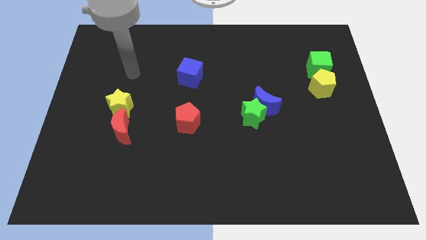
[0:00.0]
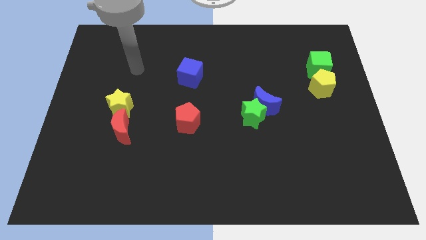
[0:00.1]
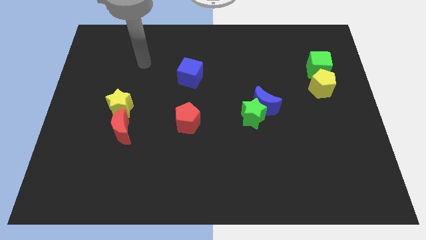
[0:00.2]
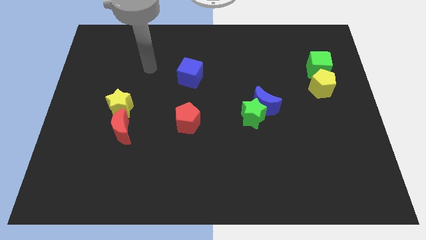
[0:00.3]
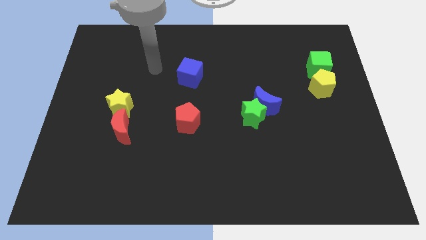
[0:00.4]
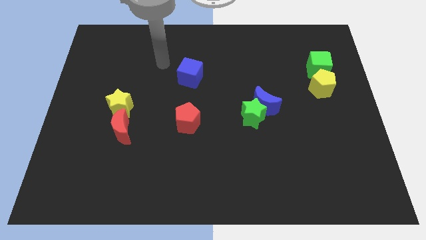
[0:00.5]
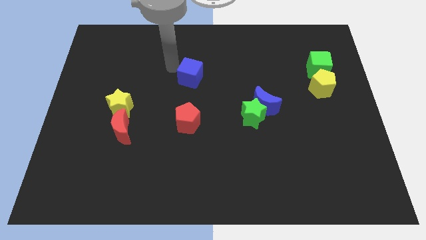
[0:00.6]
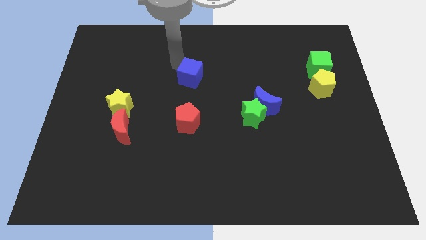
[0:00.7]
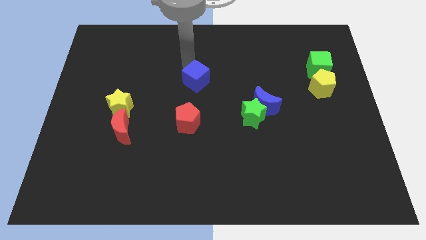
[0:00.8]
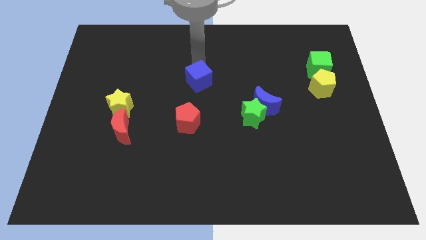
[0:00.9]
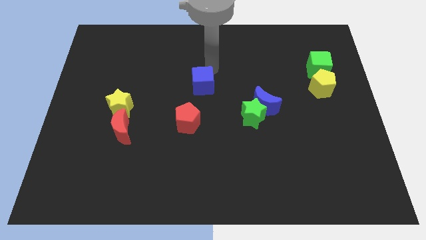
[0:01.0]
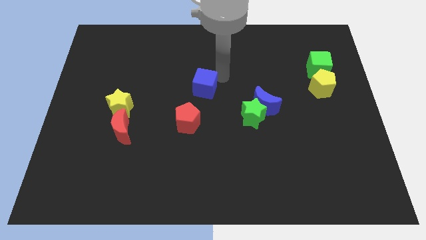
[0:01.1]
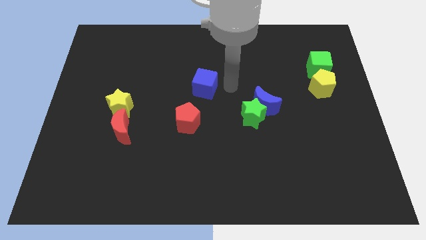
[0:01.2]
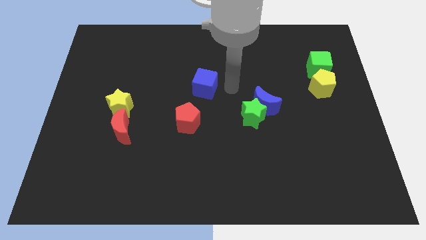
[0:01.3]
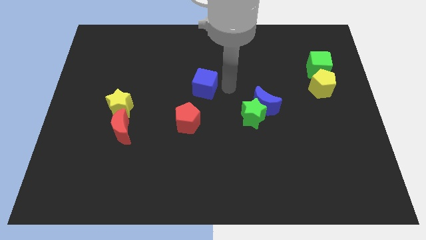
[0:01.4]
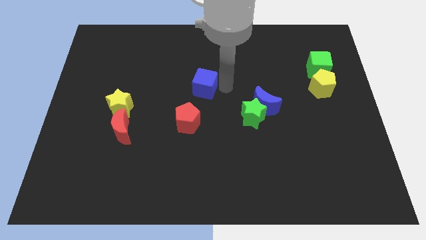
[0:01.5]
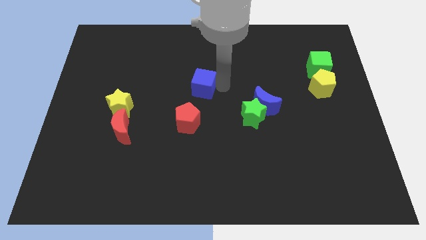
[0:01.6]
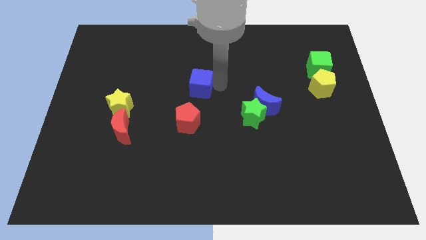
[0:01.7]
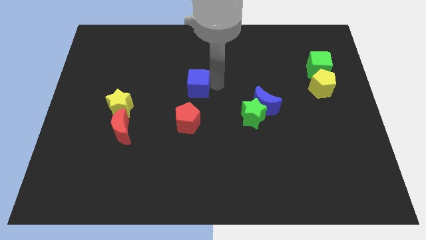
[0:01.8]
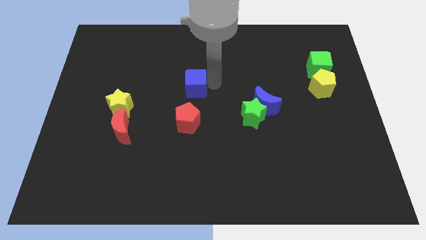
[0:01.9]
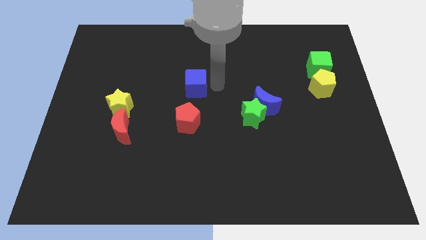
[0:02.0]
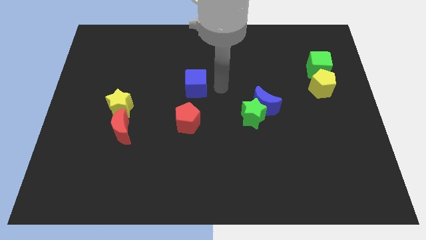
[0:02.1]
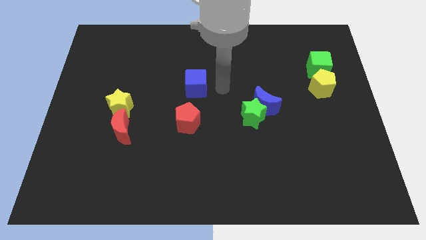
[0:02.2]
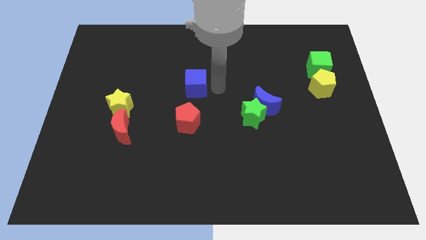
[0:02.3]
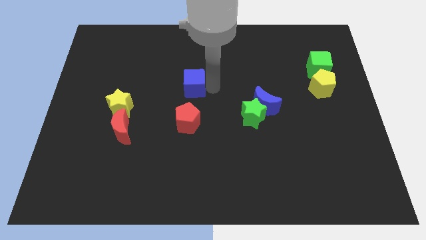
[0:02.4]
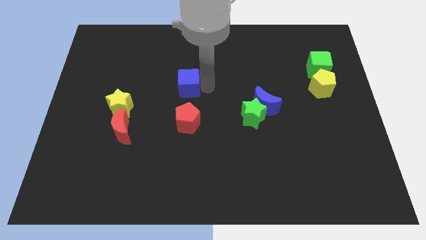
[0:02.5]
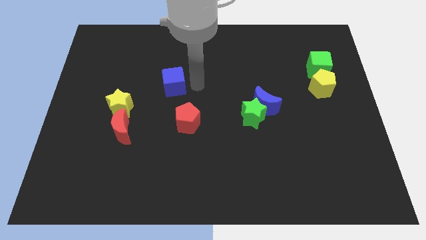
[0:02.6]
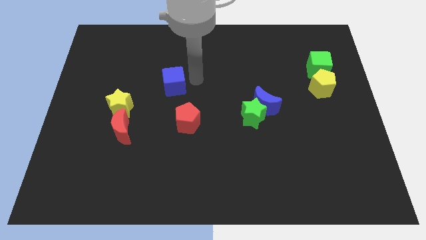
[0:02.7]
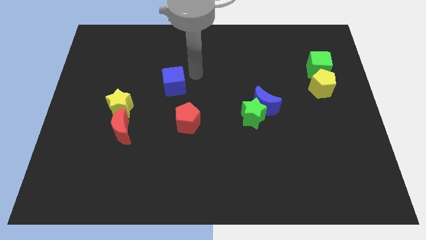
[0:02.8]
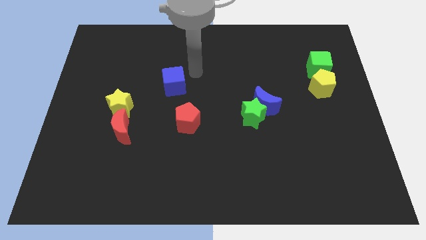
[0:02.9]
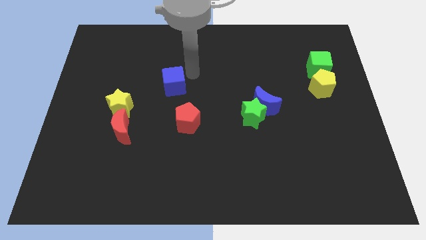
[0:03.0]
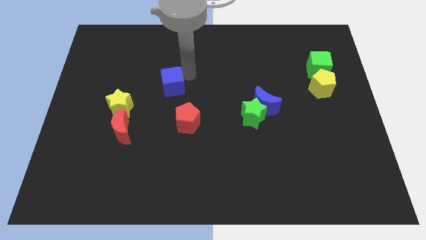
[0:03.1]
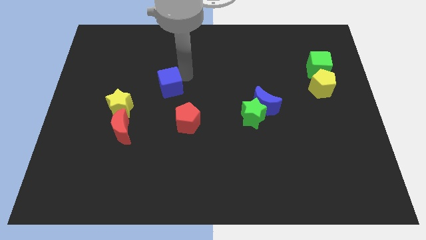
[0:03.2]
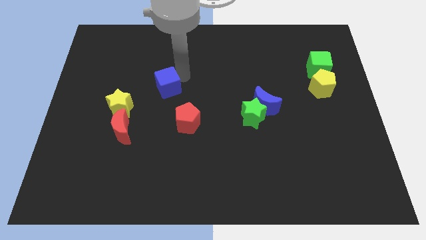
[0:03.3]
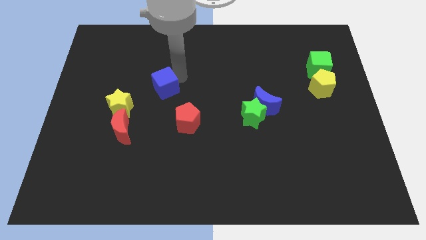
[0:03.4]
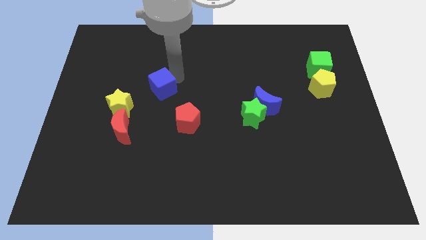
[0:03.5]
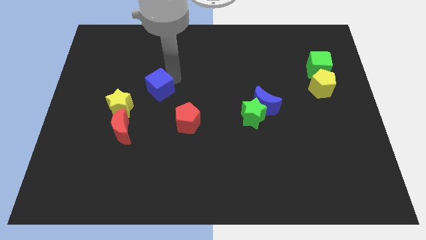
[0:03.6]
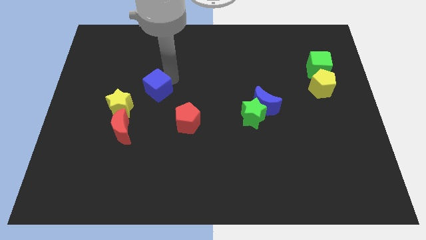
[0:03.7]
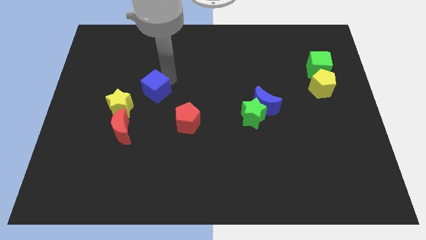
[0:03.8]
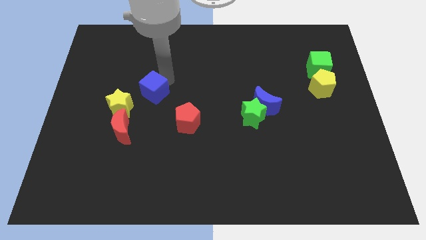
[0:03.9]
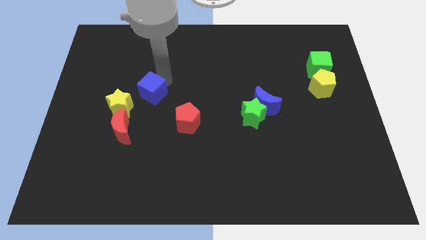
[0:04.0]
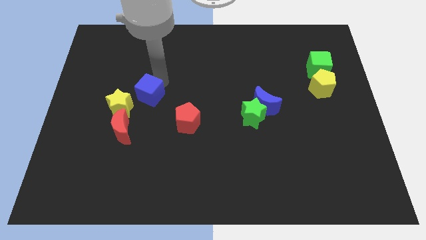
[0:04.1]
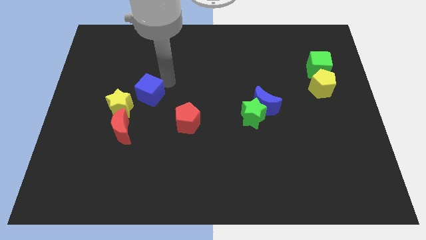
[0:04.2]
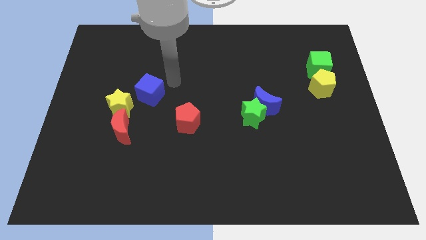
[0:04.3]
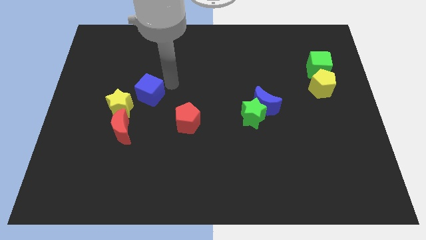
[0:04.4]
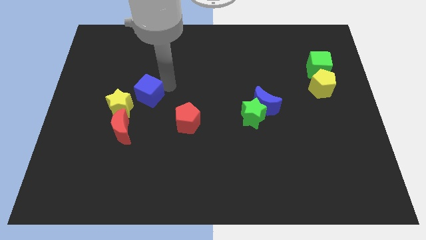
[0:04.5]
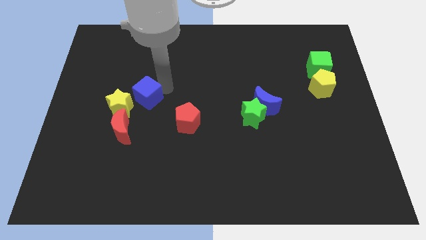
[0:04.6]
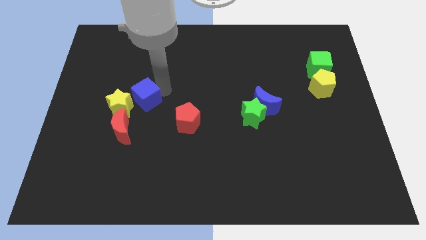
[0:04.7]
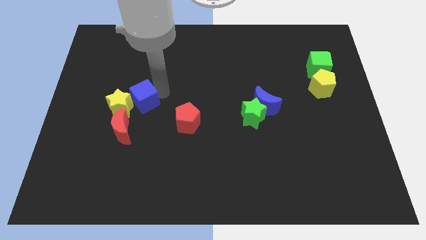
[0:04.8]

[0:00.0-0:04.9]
move the blue cube next to the yellow star

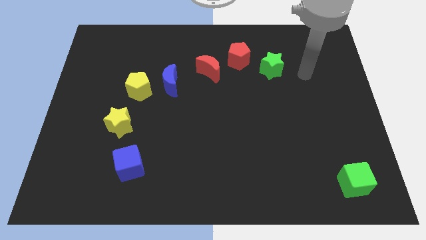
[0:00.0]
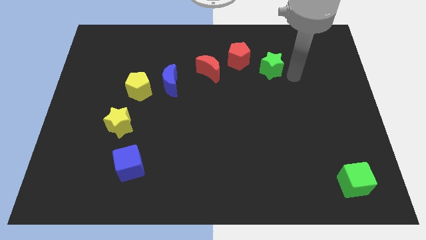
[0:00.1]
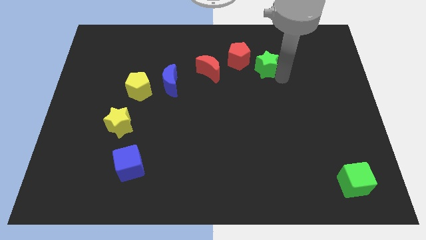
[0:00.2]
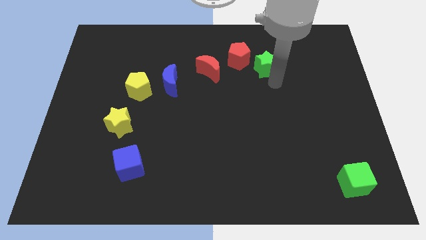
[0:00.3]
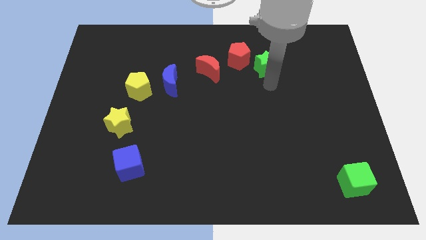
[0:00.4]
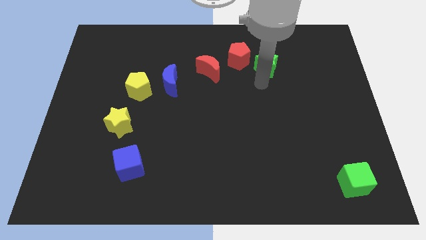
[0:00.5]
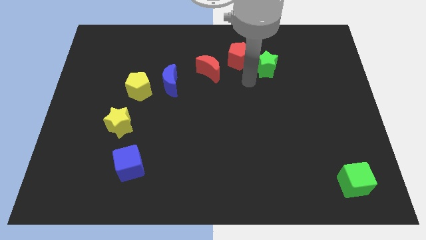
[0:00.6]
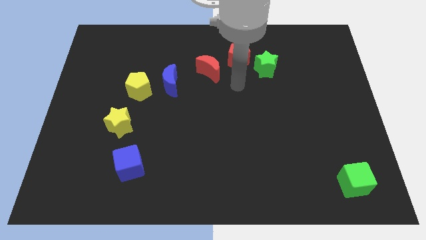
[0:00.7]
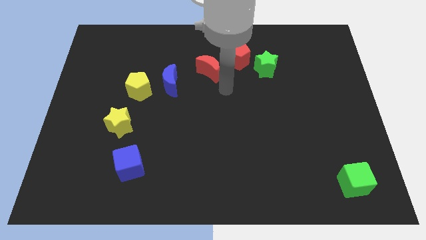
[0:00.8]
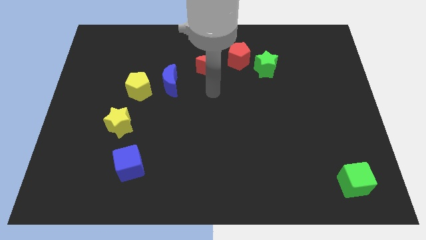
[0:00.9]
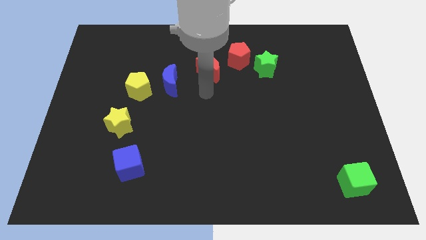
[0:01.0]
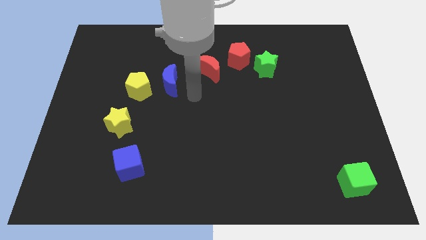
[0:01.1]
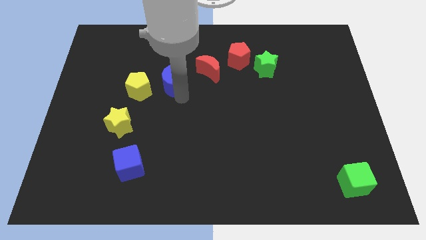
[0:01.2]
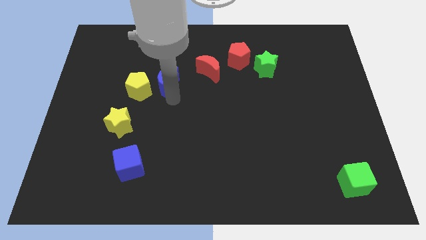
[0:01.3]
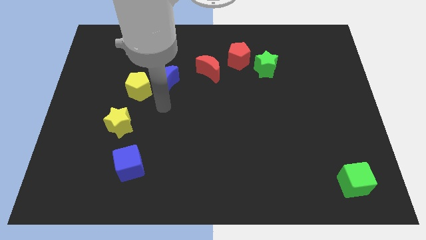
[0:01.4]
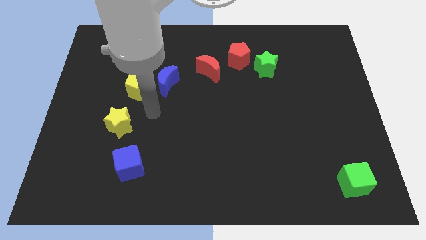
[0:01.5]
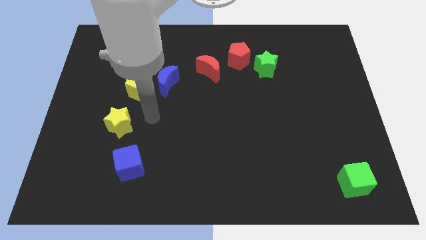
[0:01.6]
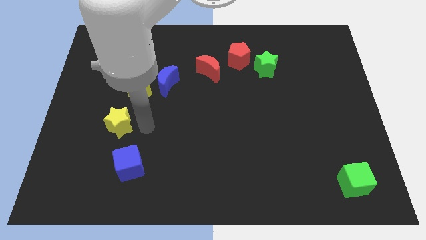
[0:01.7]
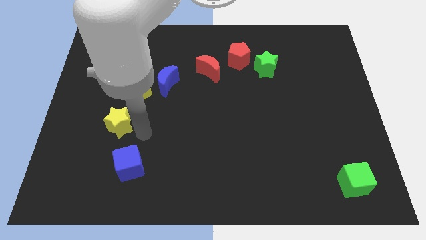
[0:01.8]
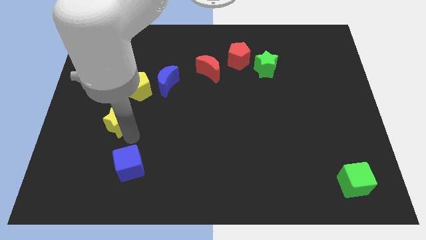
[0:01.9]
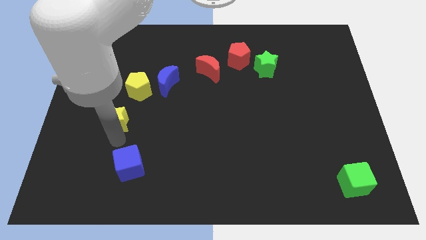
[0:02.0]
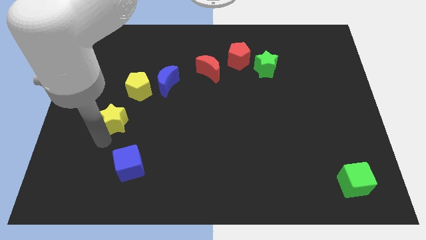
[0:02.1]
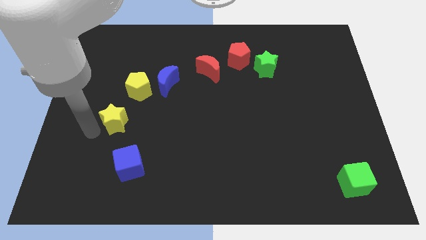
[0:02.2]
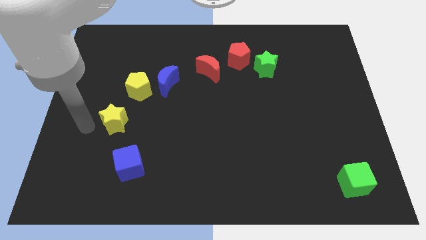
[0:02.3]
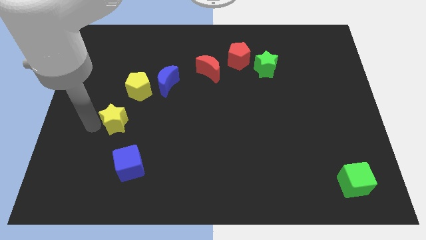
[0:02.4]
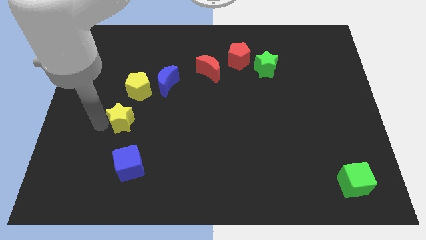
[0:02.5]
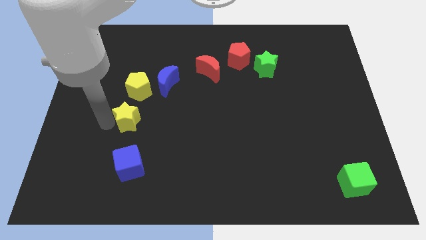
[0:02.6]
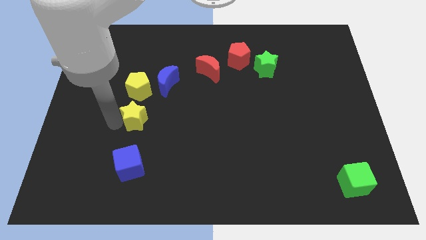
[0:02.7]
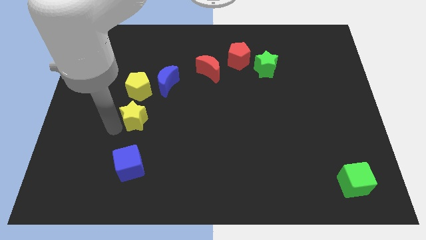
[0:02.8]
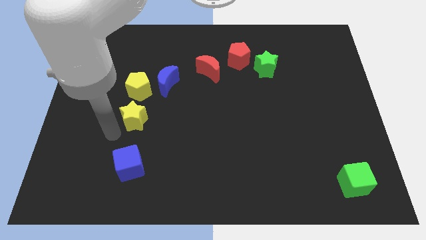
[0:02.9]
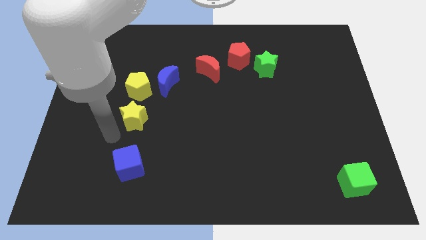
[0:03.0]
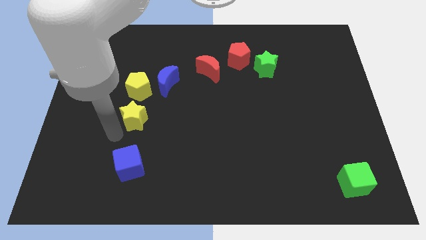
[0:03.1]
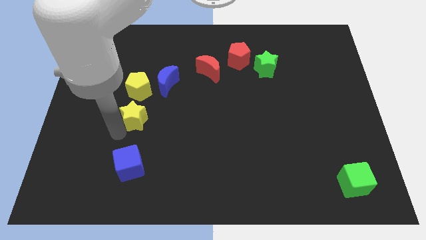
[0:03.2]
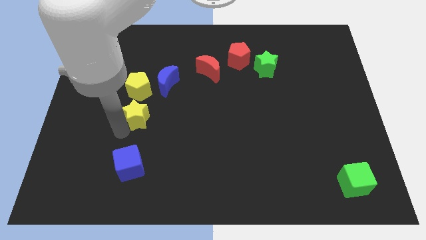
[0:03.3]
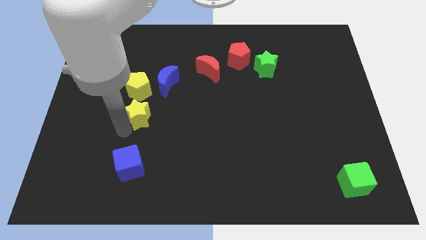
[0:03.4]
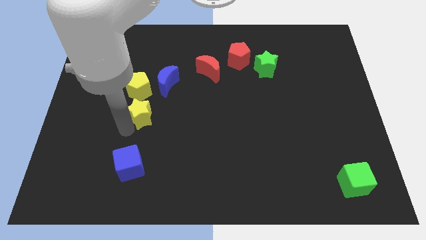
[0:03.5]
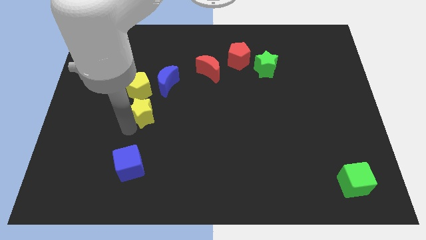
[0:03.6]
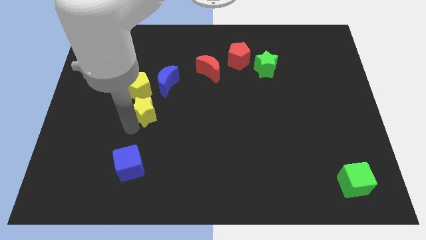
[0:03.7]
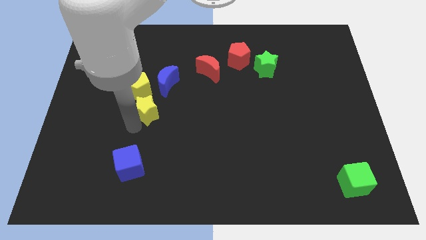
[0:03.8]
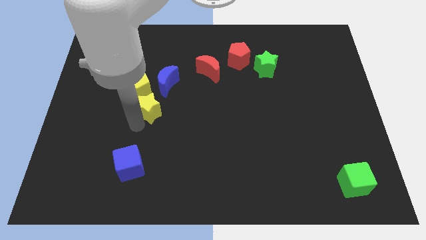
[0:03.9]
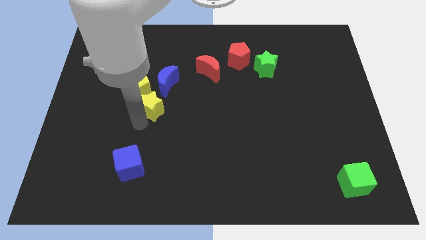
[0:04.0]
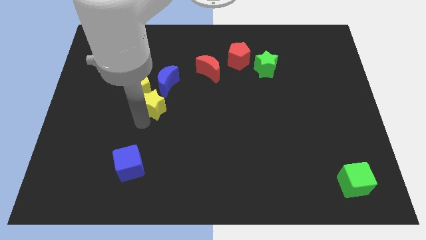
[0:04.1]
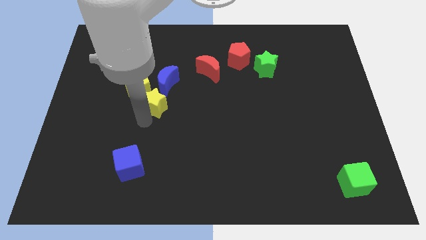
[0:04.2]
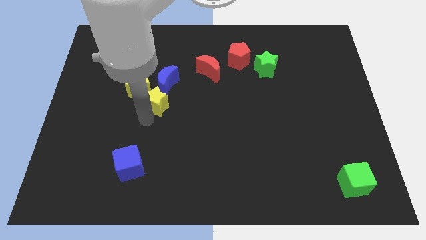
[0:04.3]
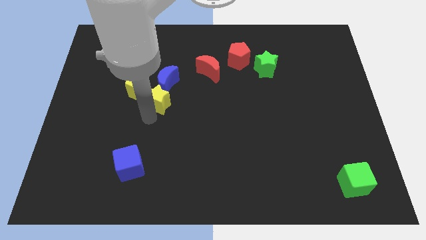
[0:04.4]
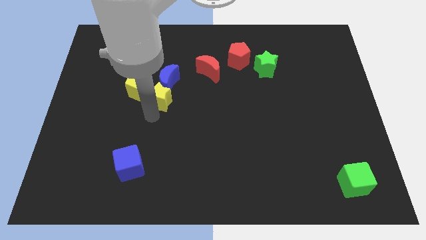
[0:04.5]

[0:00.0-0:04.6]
put the yellow star next to the blue moon
